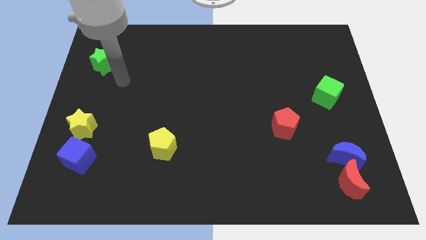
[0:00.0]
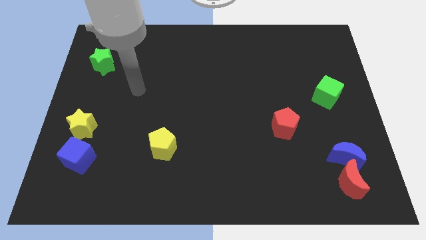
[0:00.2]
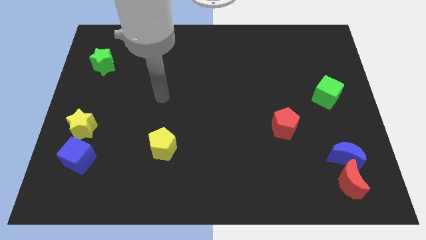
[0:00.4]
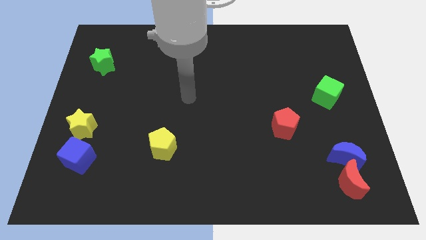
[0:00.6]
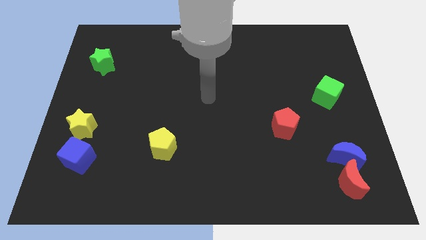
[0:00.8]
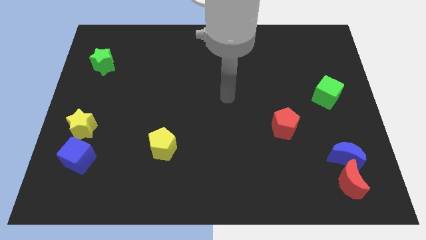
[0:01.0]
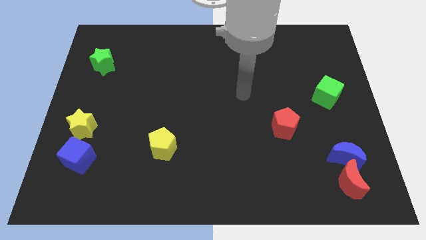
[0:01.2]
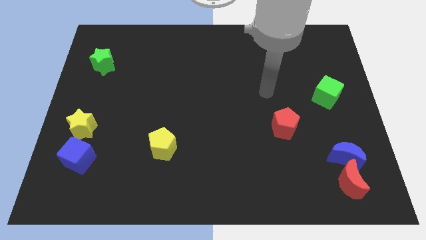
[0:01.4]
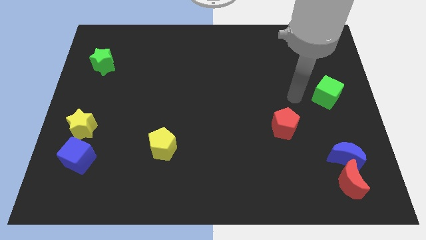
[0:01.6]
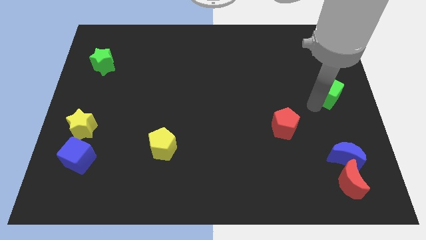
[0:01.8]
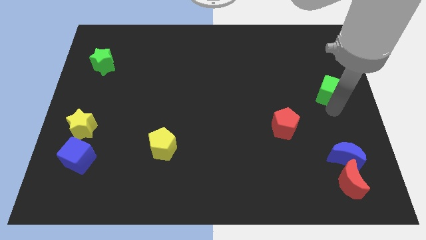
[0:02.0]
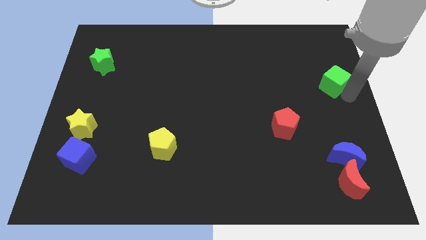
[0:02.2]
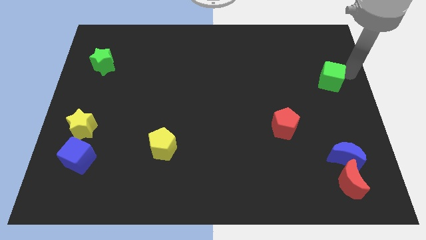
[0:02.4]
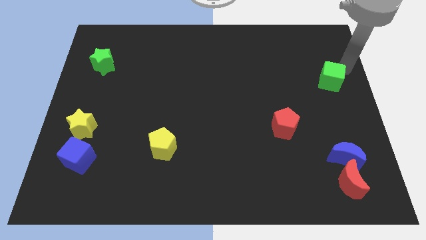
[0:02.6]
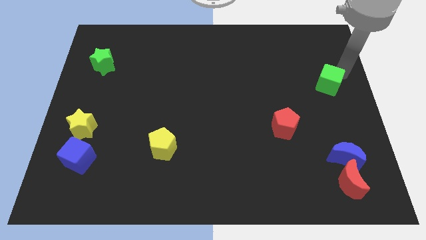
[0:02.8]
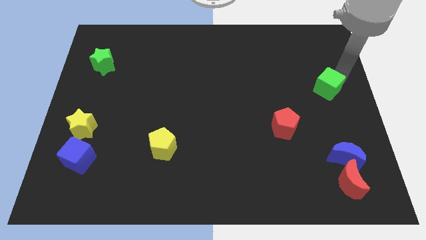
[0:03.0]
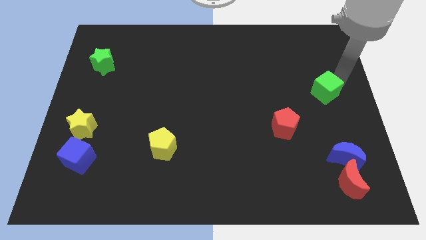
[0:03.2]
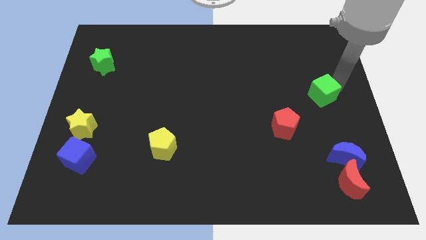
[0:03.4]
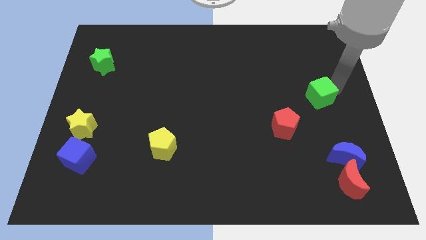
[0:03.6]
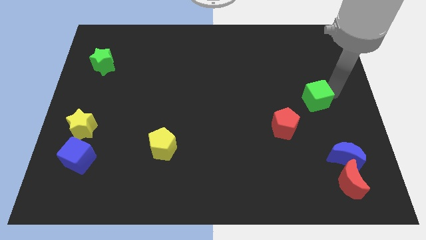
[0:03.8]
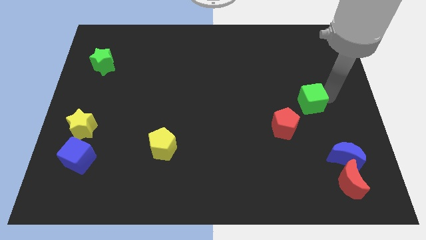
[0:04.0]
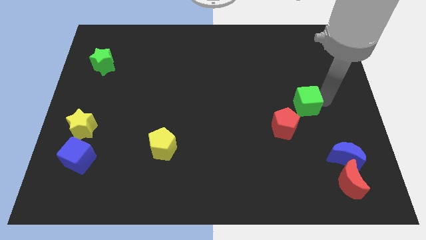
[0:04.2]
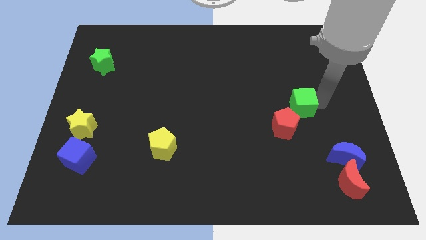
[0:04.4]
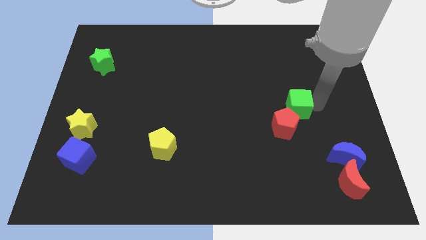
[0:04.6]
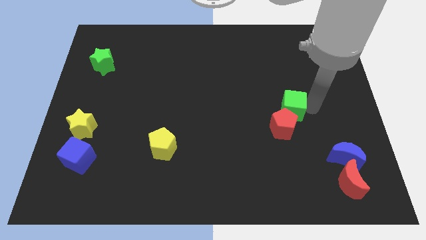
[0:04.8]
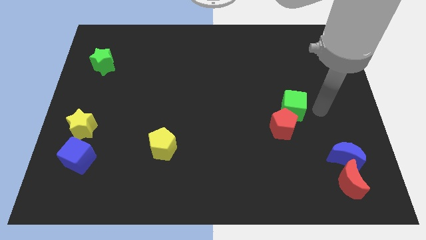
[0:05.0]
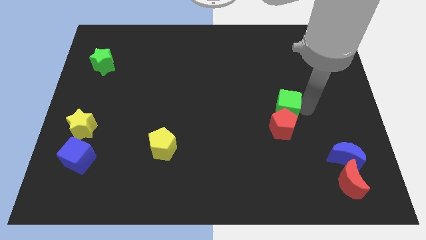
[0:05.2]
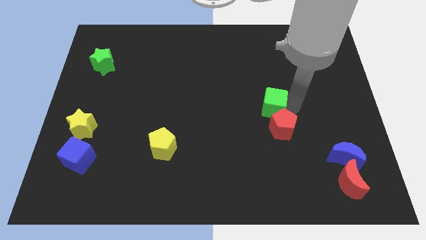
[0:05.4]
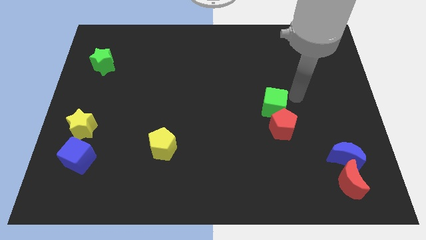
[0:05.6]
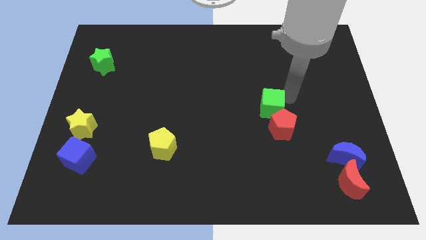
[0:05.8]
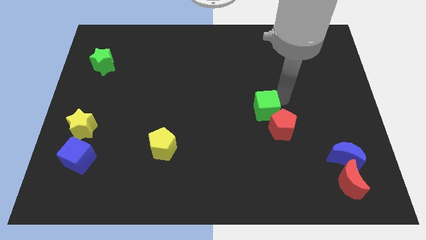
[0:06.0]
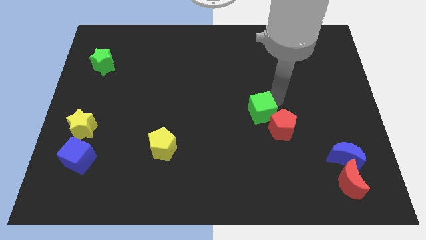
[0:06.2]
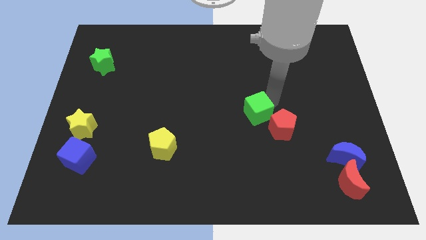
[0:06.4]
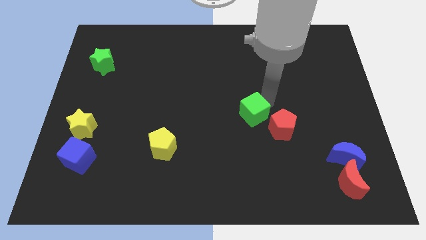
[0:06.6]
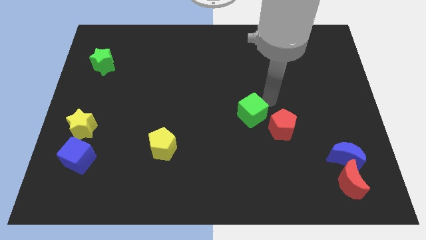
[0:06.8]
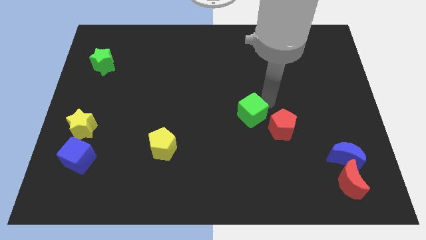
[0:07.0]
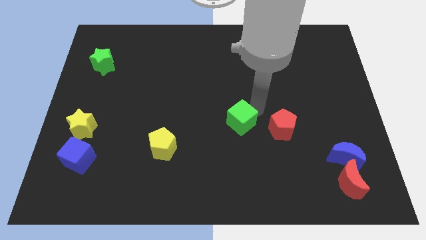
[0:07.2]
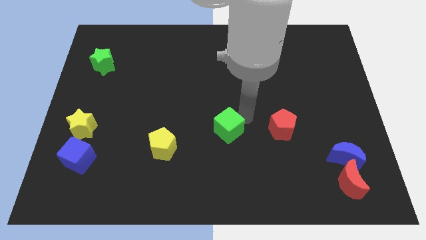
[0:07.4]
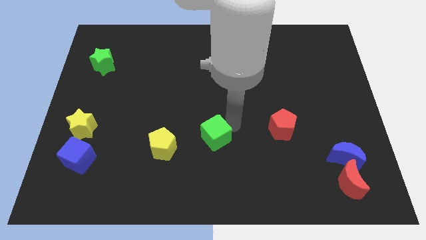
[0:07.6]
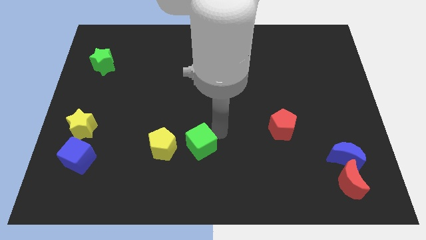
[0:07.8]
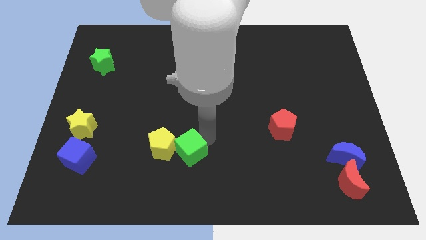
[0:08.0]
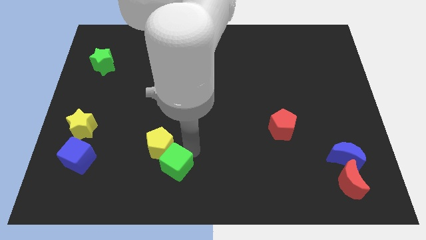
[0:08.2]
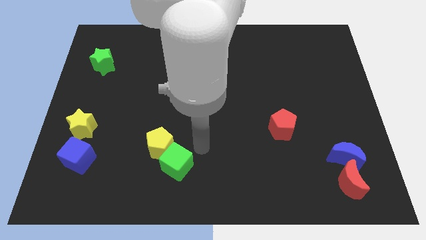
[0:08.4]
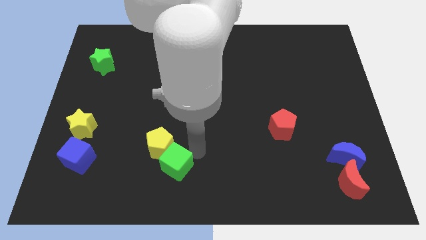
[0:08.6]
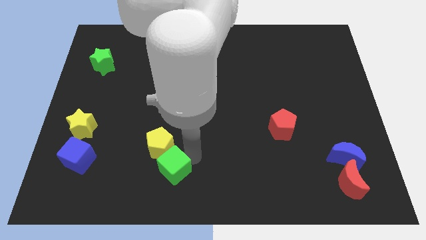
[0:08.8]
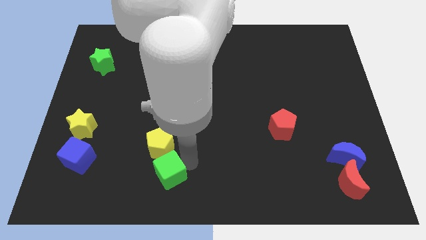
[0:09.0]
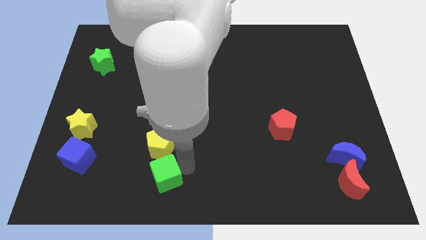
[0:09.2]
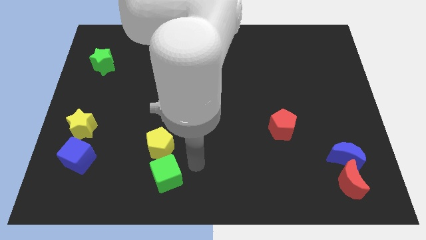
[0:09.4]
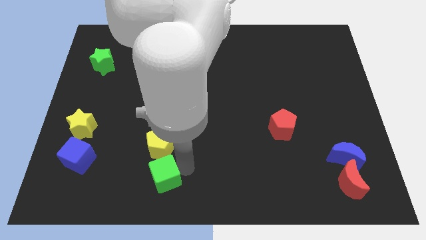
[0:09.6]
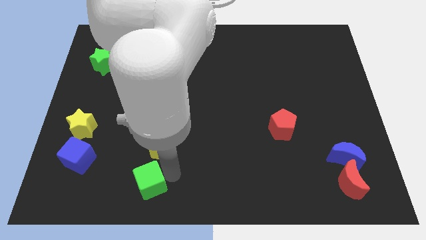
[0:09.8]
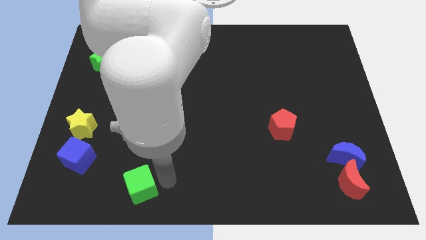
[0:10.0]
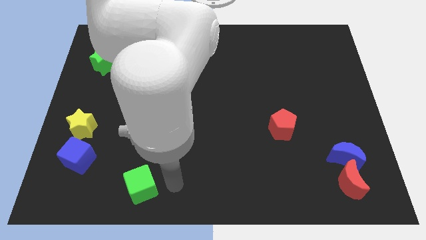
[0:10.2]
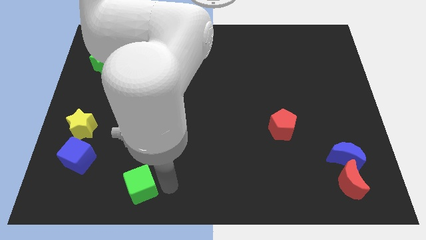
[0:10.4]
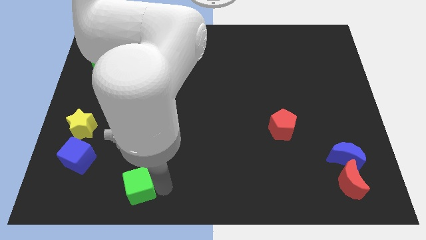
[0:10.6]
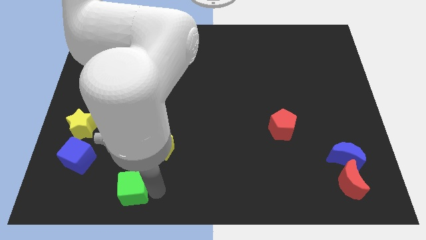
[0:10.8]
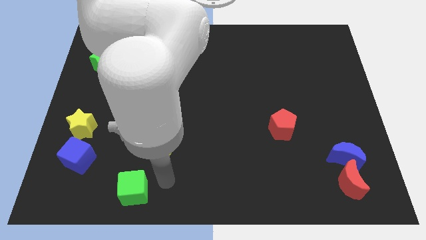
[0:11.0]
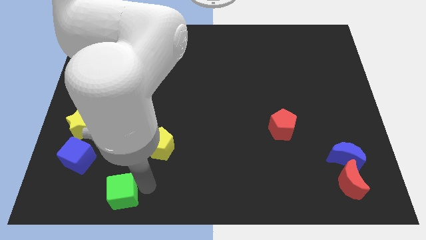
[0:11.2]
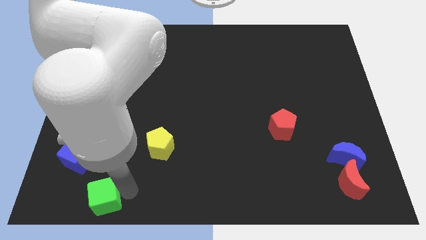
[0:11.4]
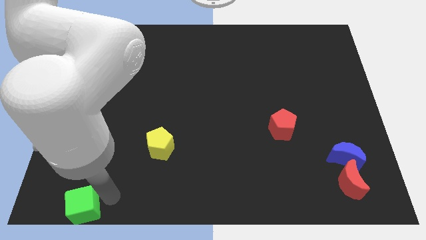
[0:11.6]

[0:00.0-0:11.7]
put the green cube to the lower left corner
